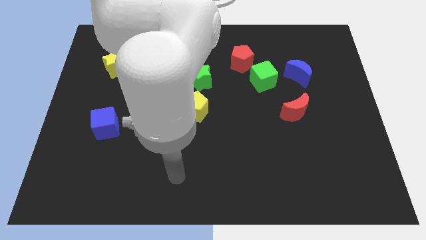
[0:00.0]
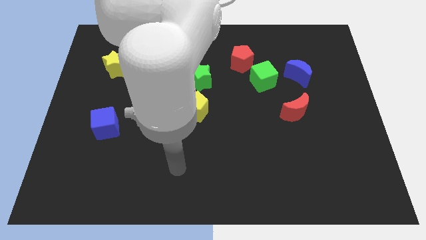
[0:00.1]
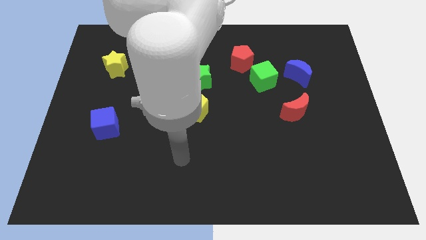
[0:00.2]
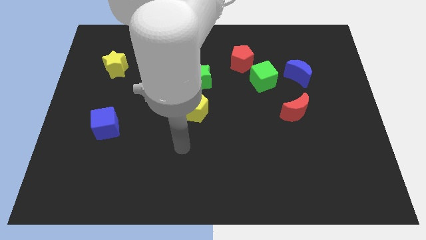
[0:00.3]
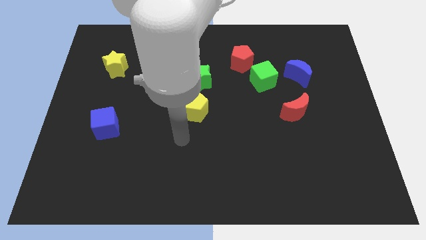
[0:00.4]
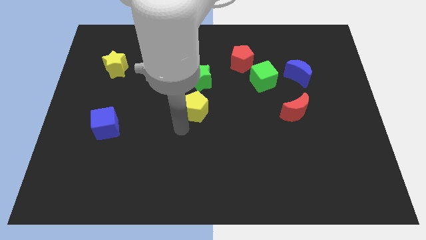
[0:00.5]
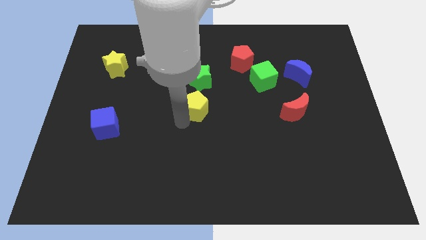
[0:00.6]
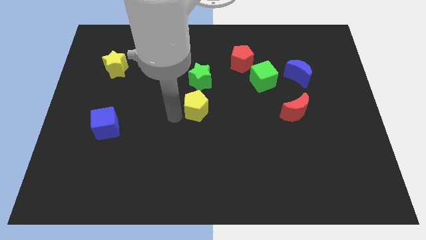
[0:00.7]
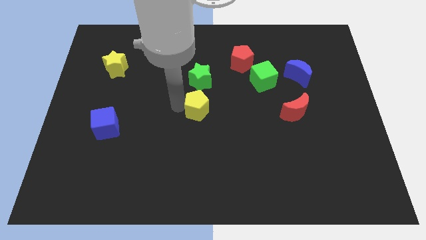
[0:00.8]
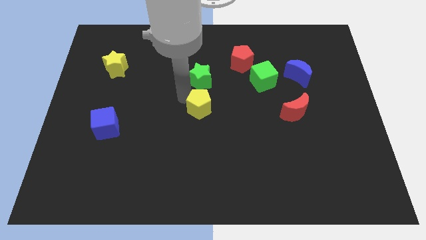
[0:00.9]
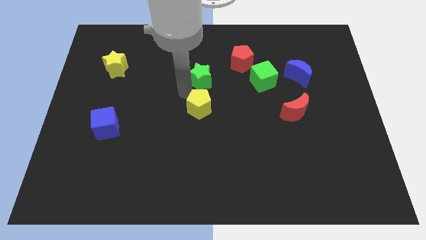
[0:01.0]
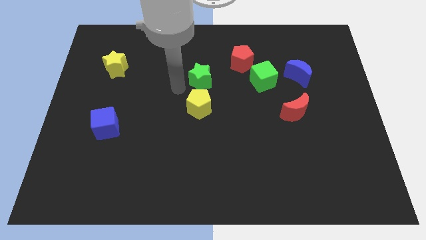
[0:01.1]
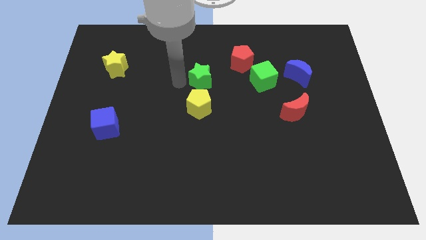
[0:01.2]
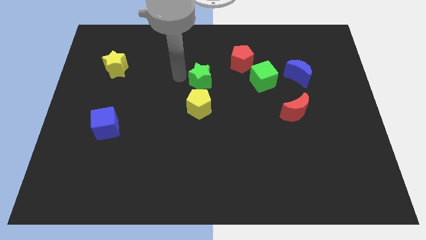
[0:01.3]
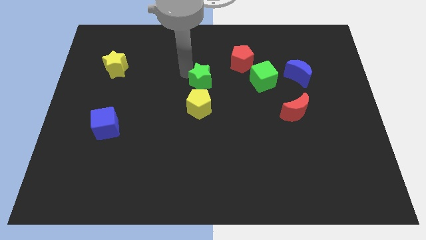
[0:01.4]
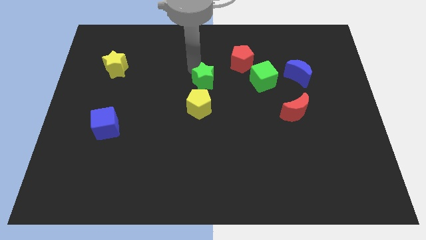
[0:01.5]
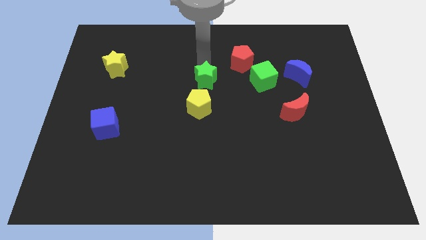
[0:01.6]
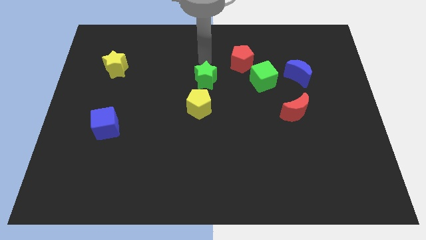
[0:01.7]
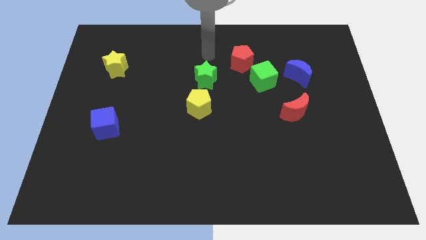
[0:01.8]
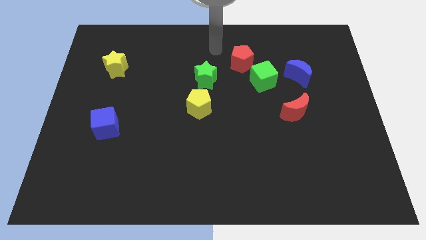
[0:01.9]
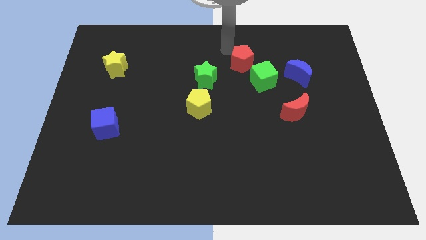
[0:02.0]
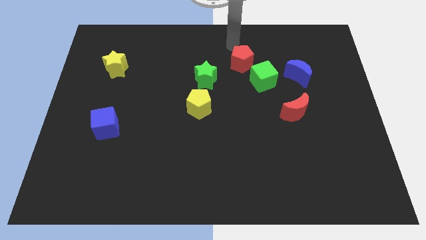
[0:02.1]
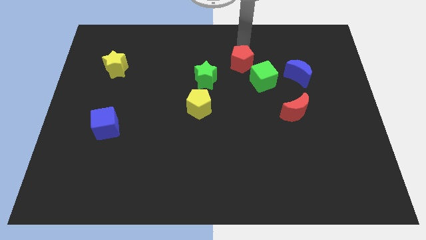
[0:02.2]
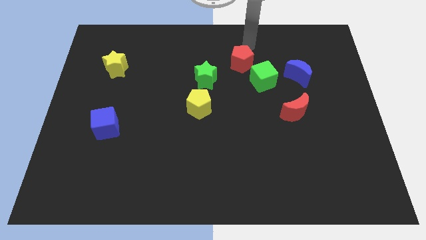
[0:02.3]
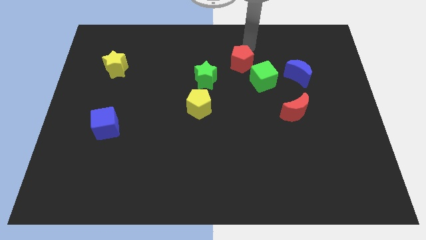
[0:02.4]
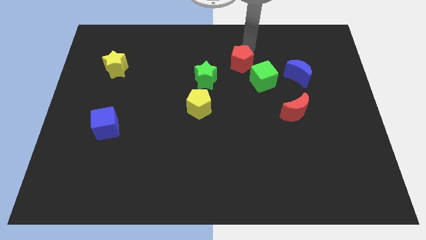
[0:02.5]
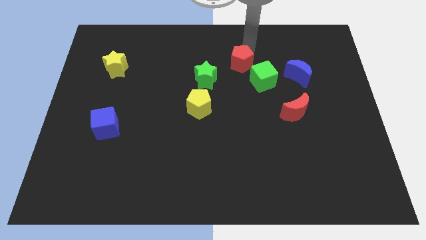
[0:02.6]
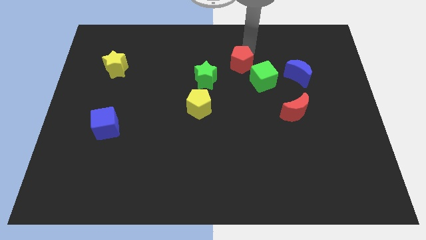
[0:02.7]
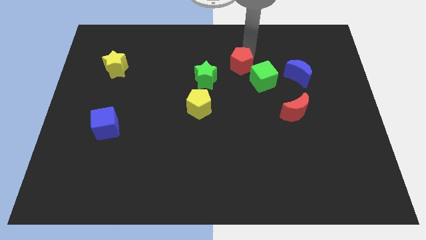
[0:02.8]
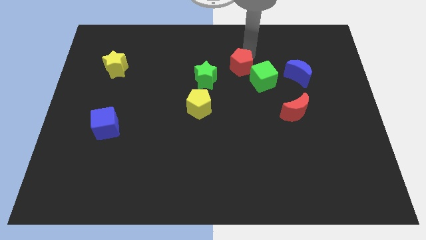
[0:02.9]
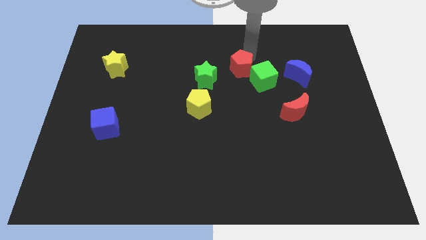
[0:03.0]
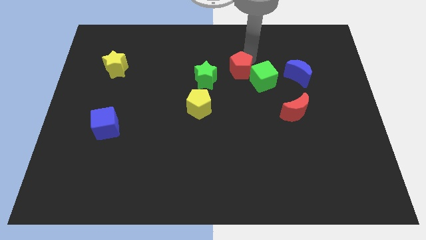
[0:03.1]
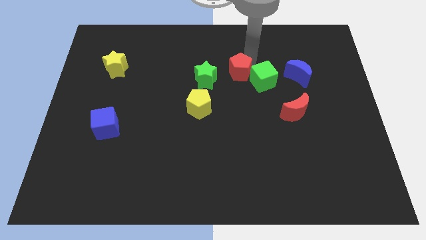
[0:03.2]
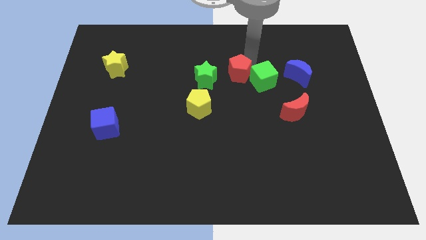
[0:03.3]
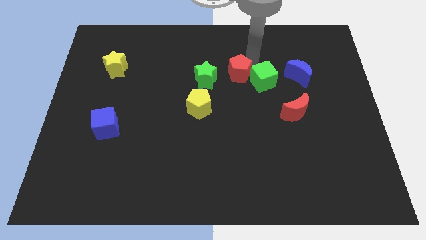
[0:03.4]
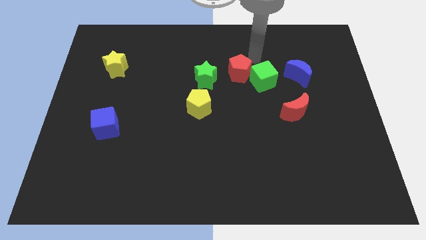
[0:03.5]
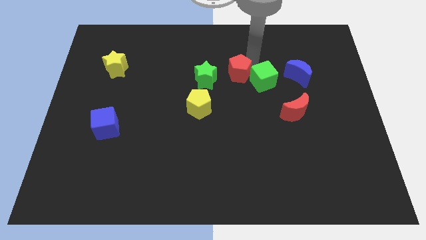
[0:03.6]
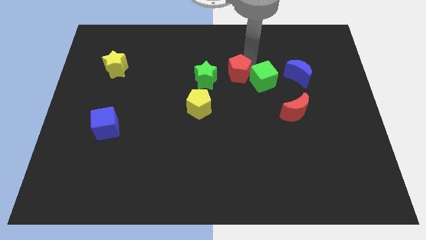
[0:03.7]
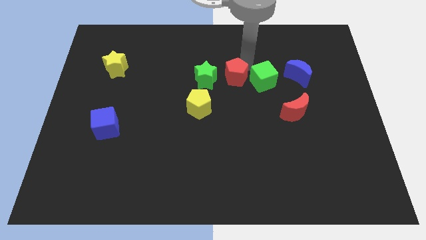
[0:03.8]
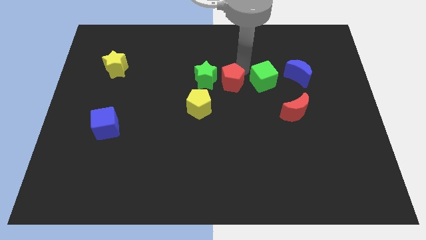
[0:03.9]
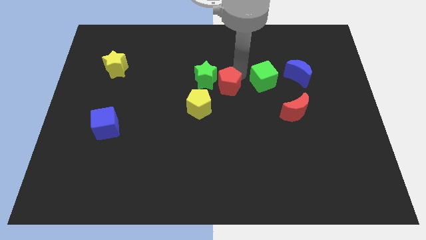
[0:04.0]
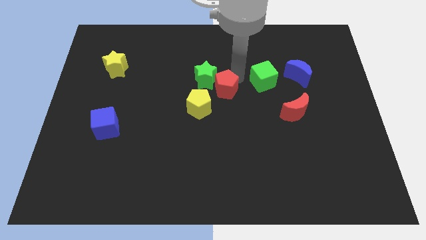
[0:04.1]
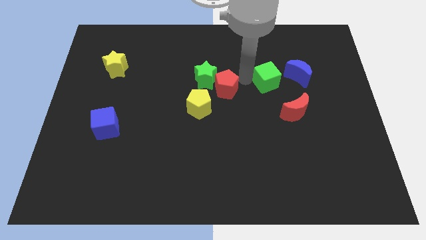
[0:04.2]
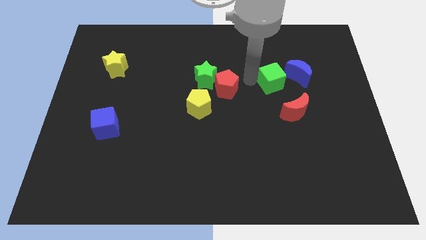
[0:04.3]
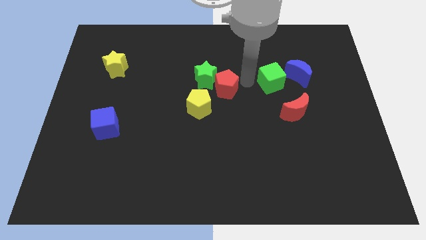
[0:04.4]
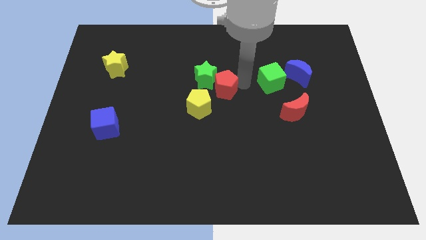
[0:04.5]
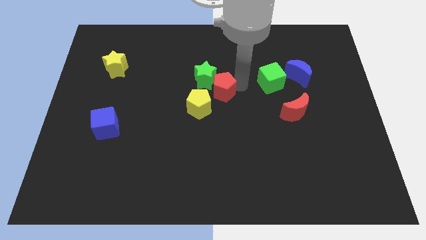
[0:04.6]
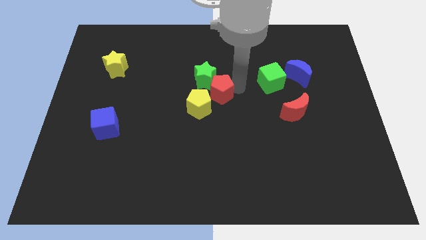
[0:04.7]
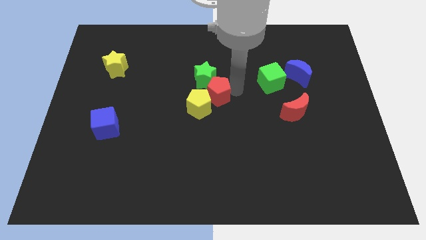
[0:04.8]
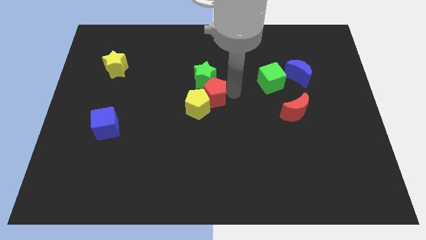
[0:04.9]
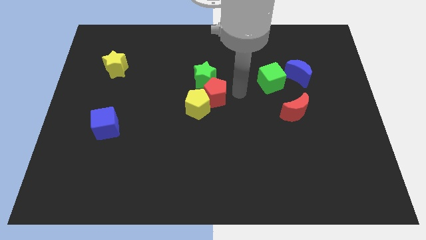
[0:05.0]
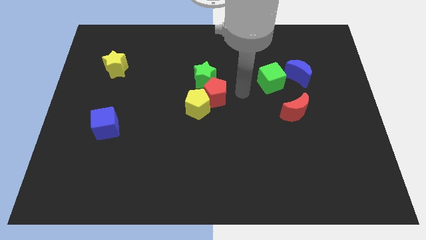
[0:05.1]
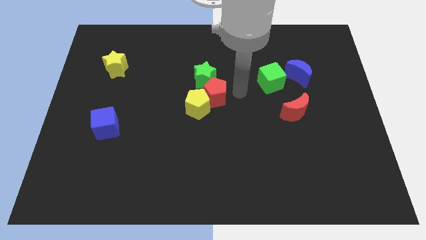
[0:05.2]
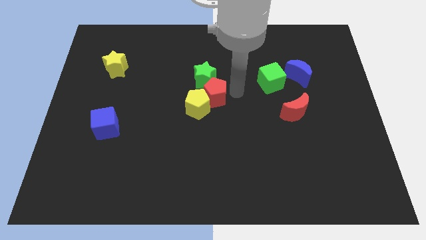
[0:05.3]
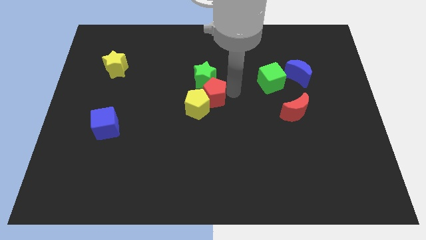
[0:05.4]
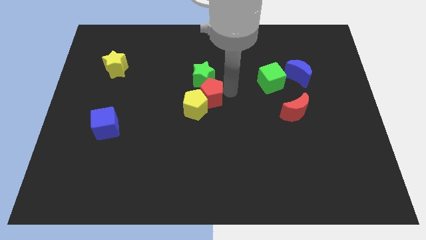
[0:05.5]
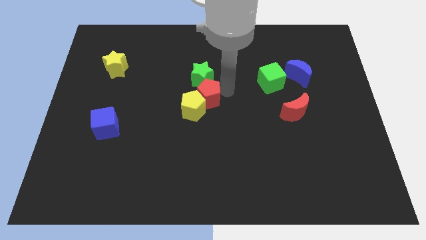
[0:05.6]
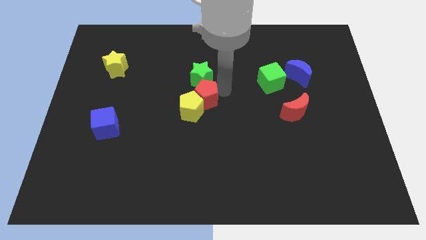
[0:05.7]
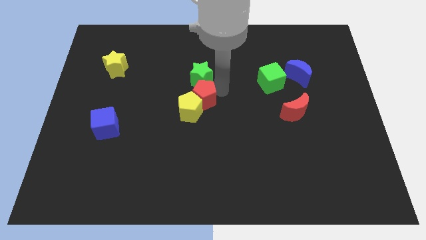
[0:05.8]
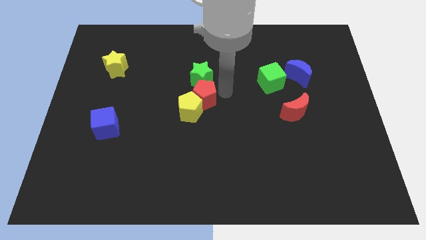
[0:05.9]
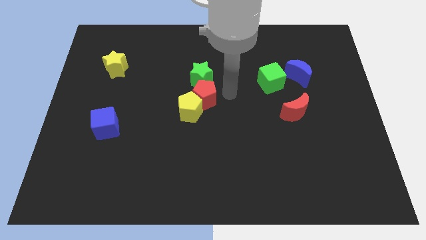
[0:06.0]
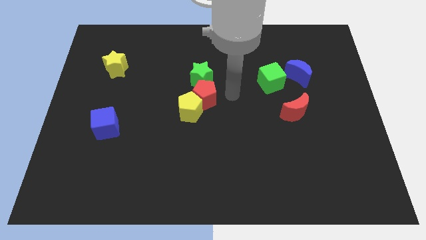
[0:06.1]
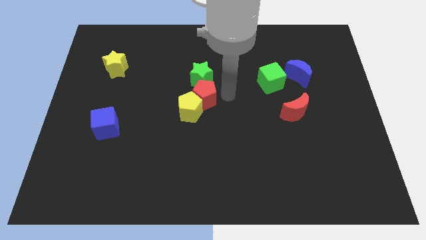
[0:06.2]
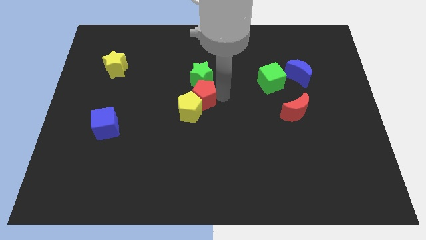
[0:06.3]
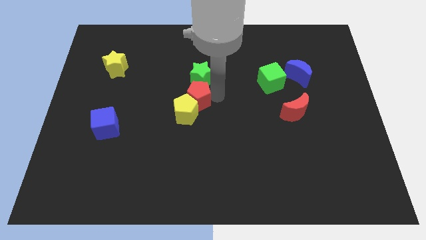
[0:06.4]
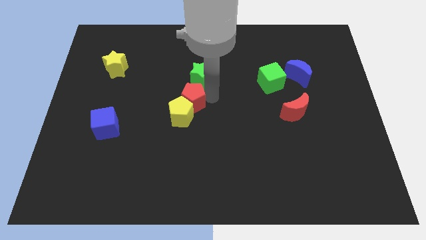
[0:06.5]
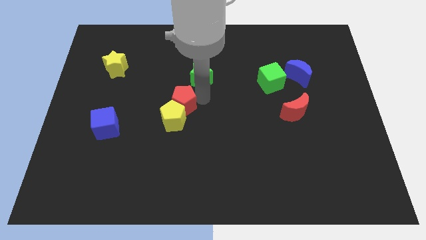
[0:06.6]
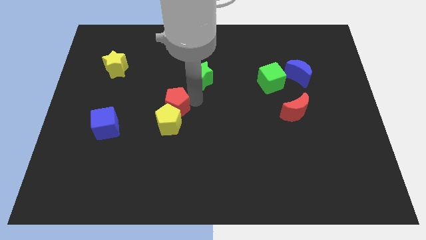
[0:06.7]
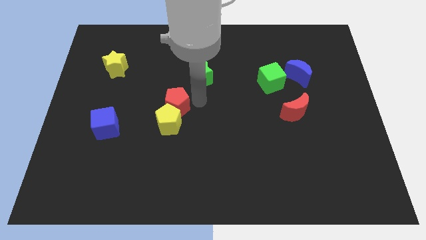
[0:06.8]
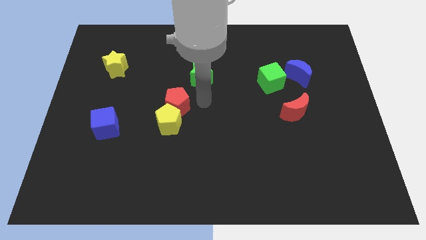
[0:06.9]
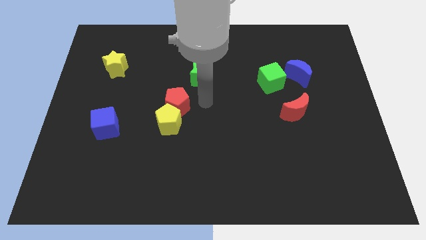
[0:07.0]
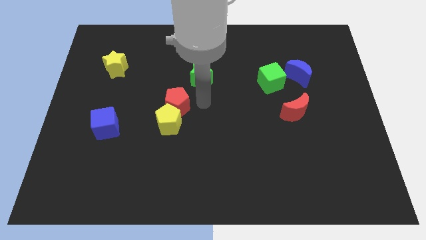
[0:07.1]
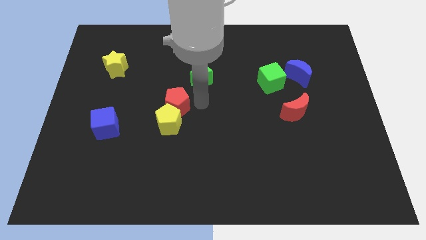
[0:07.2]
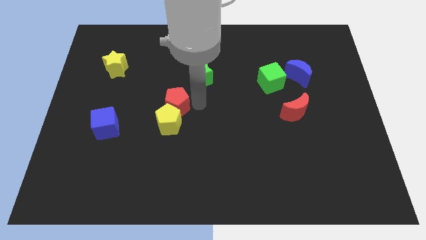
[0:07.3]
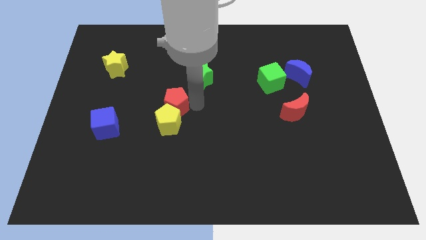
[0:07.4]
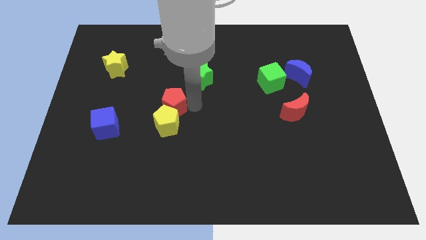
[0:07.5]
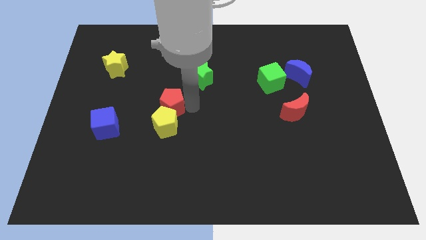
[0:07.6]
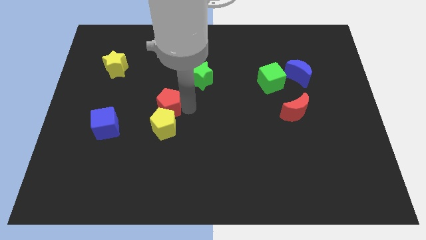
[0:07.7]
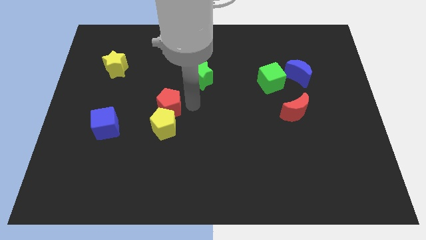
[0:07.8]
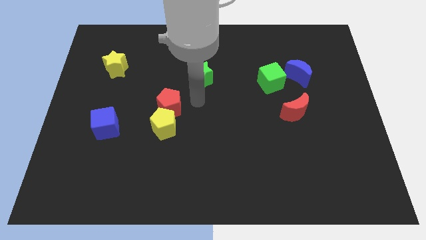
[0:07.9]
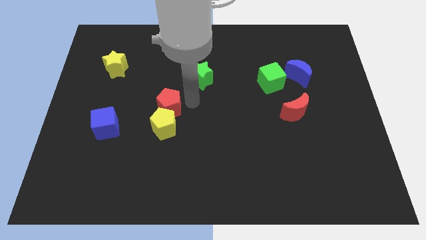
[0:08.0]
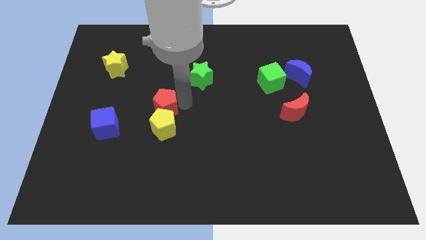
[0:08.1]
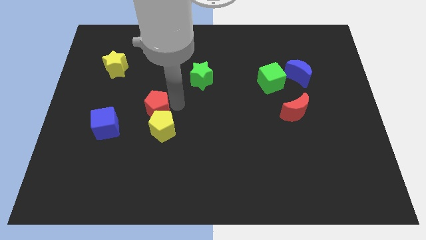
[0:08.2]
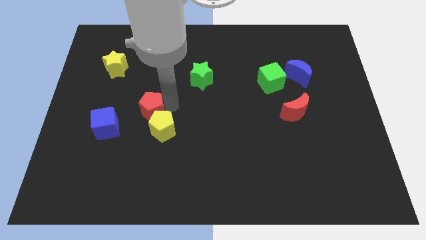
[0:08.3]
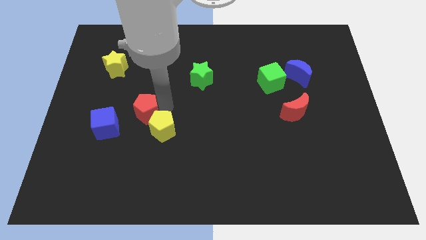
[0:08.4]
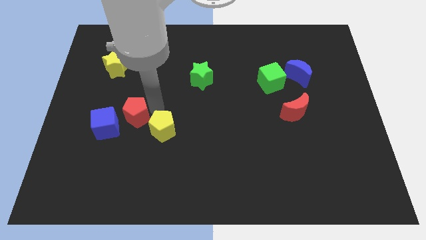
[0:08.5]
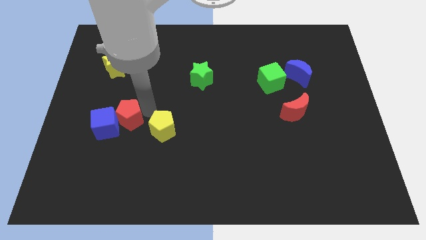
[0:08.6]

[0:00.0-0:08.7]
move the red pentagon towards the blue cube
